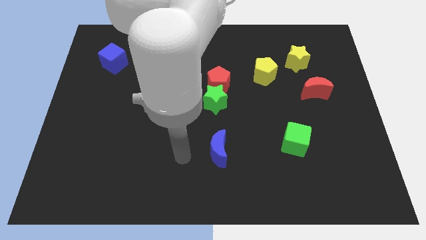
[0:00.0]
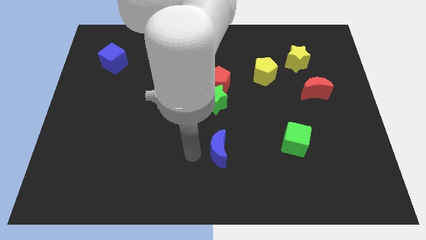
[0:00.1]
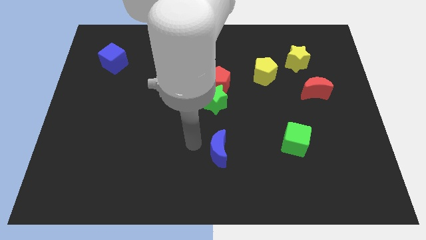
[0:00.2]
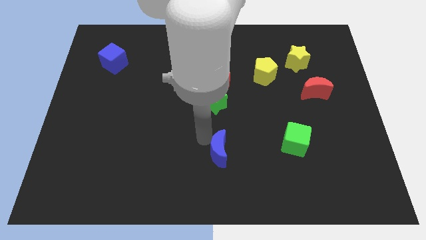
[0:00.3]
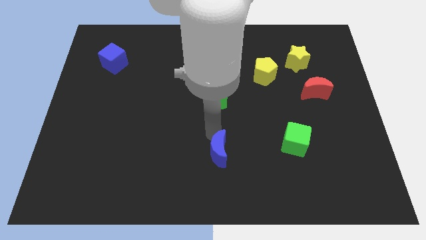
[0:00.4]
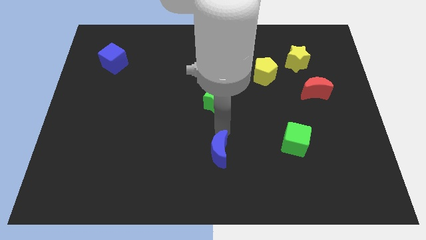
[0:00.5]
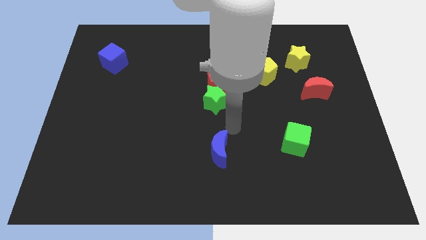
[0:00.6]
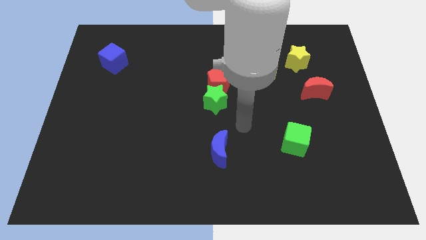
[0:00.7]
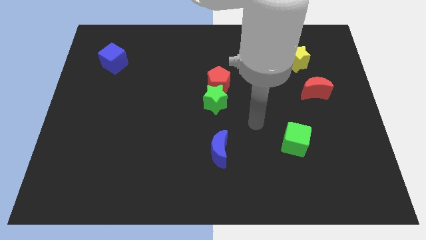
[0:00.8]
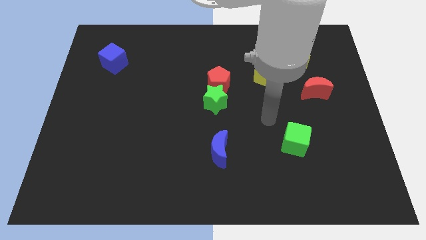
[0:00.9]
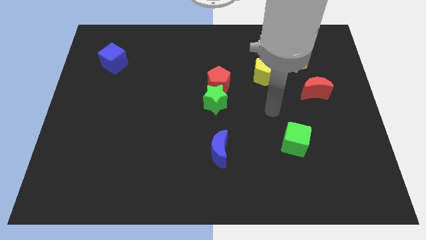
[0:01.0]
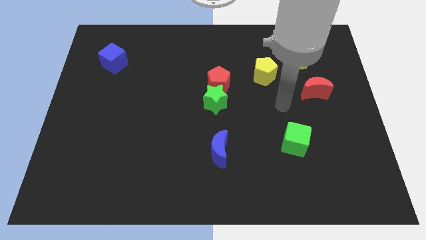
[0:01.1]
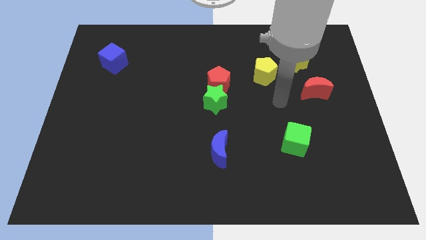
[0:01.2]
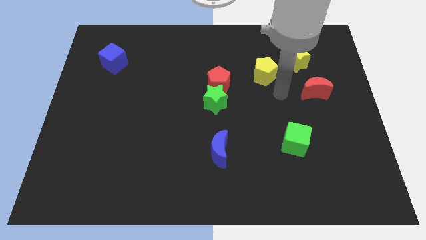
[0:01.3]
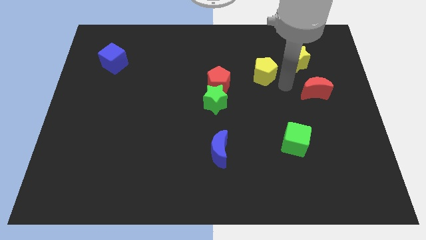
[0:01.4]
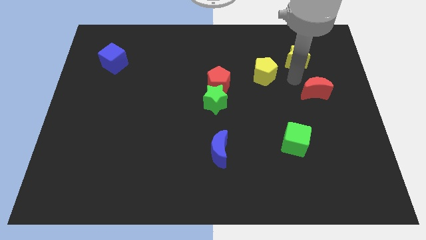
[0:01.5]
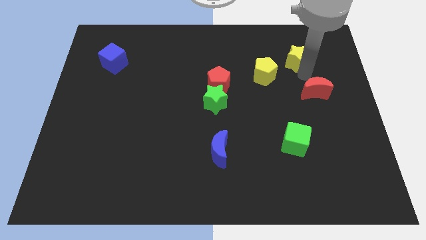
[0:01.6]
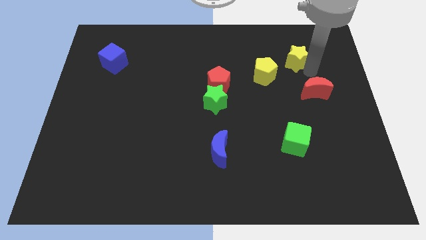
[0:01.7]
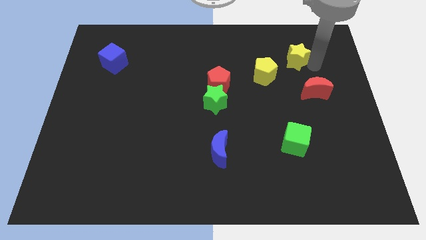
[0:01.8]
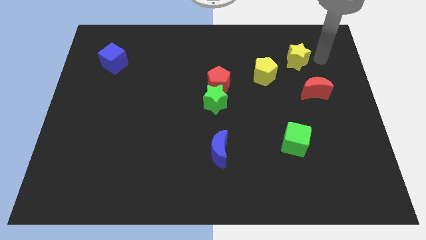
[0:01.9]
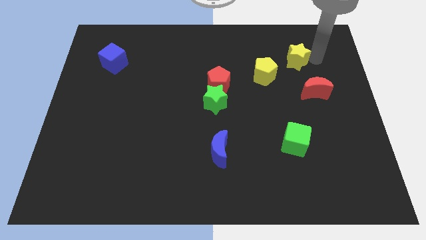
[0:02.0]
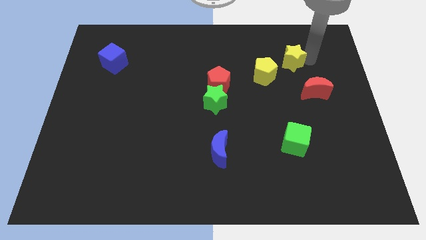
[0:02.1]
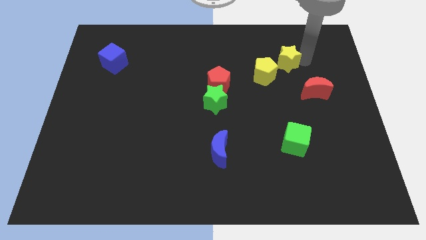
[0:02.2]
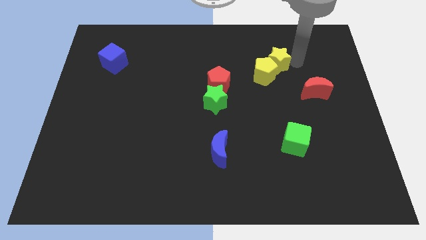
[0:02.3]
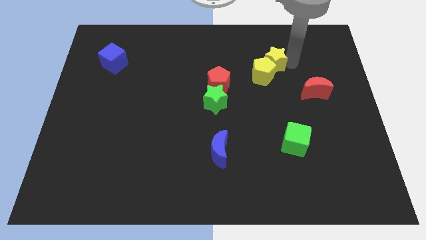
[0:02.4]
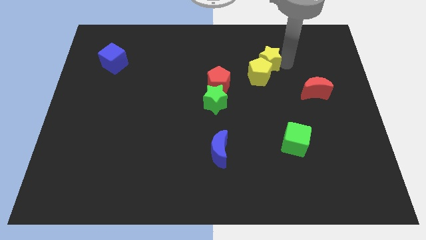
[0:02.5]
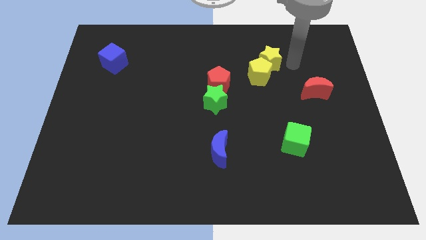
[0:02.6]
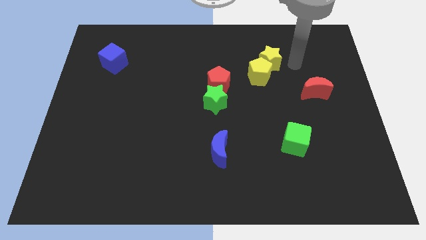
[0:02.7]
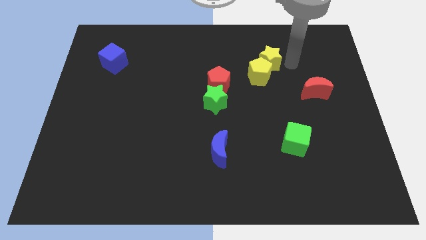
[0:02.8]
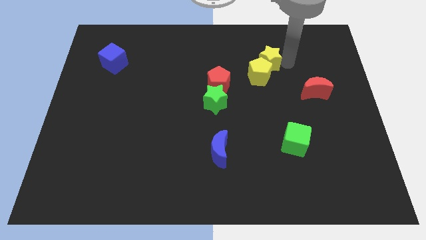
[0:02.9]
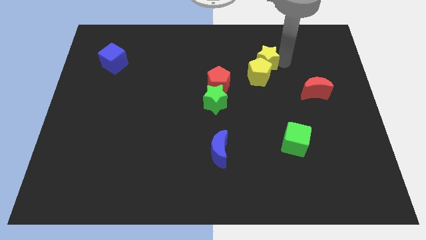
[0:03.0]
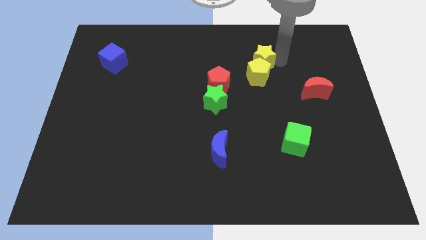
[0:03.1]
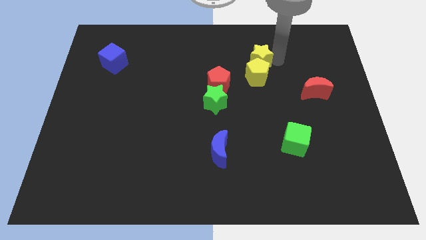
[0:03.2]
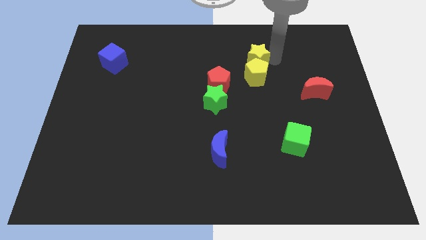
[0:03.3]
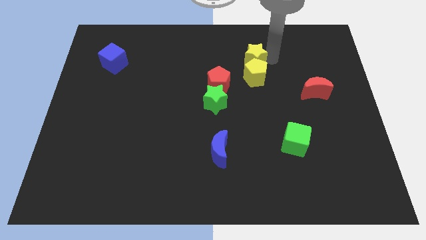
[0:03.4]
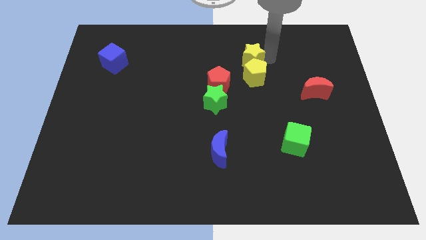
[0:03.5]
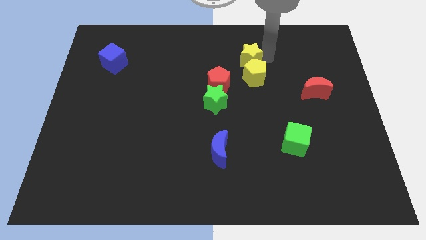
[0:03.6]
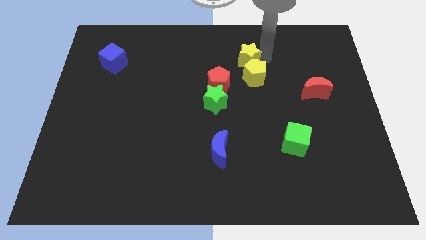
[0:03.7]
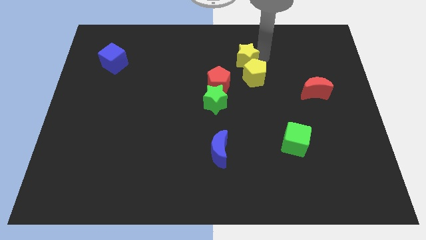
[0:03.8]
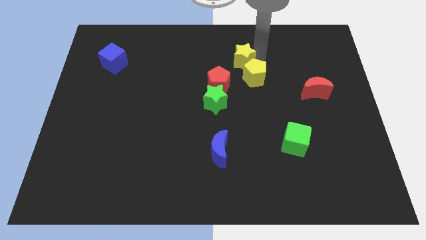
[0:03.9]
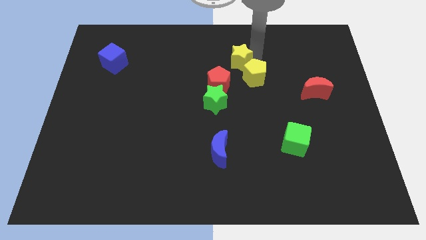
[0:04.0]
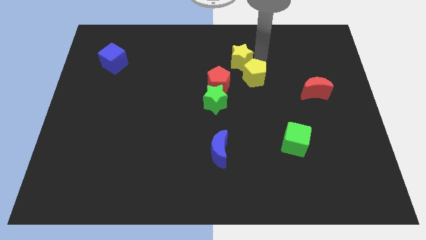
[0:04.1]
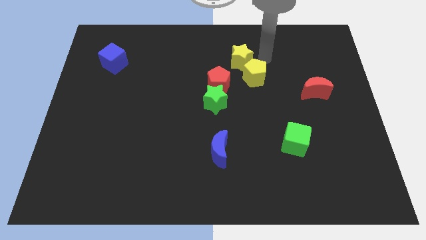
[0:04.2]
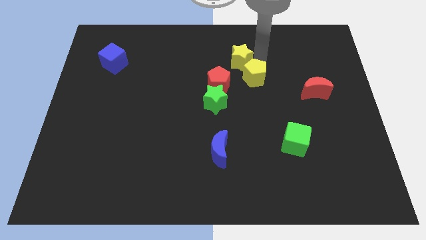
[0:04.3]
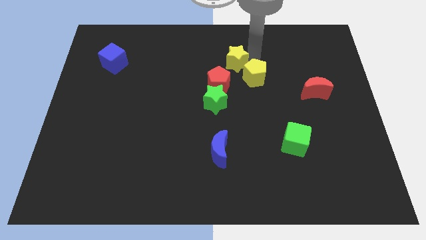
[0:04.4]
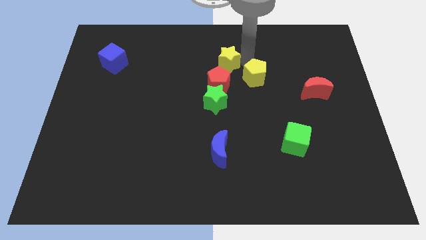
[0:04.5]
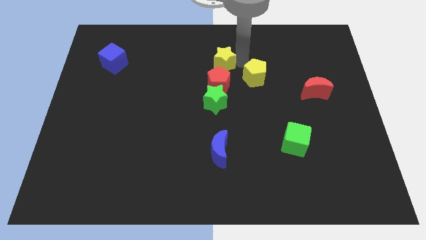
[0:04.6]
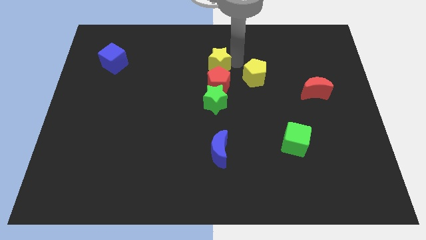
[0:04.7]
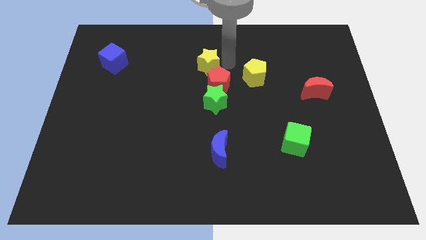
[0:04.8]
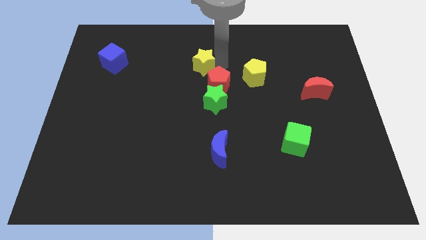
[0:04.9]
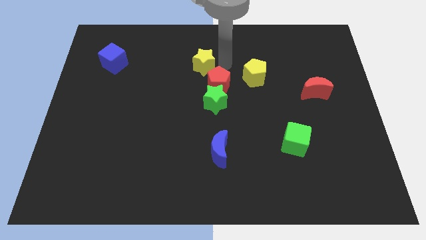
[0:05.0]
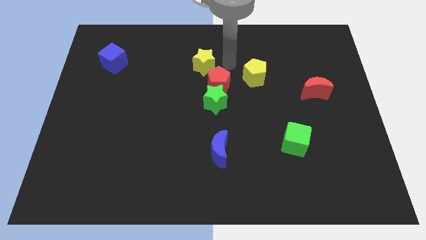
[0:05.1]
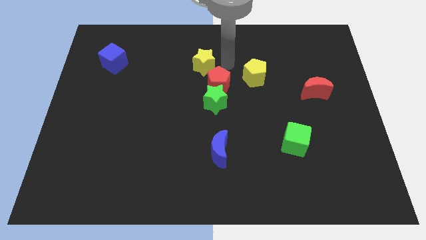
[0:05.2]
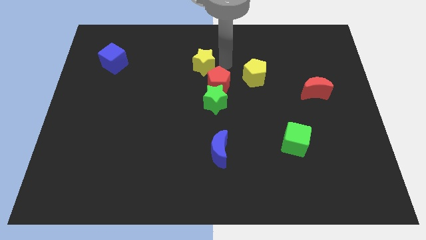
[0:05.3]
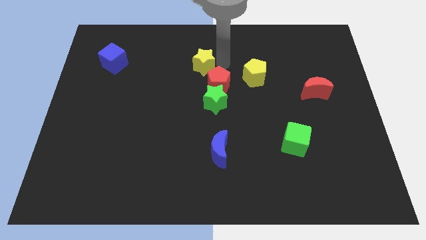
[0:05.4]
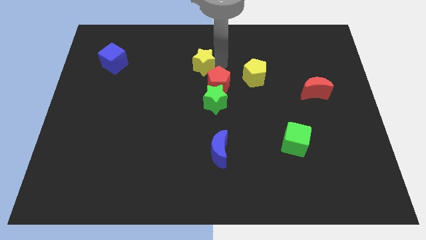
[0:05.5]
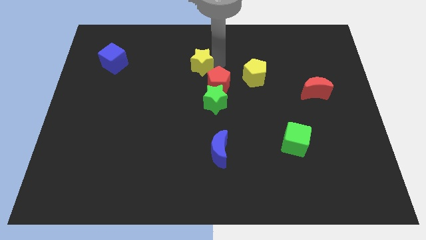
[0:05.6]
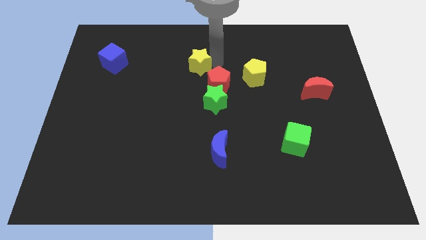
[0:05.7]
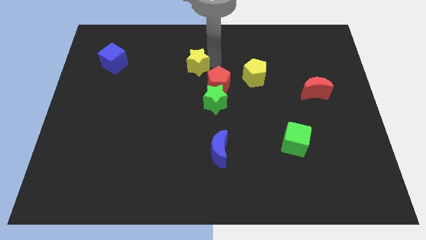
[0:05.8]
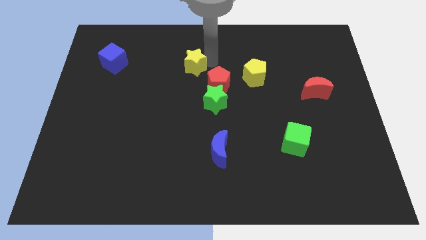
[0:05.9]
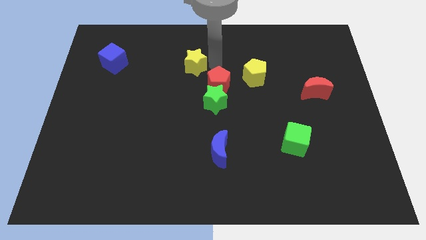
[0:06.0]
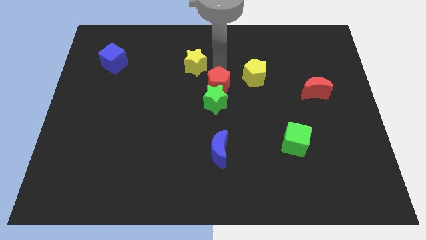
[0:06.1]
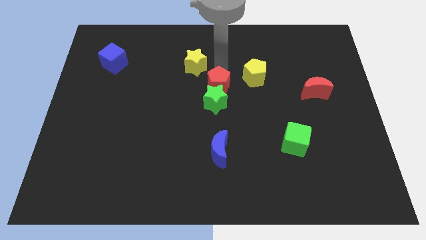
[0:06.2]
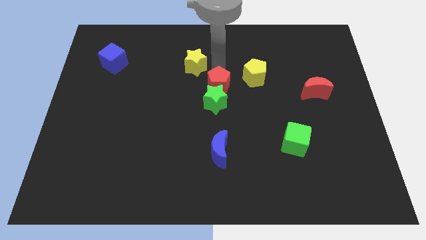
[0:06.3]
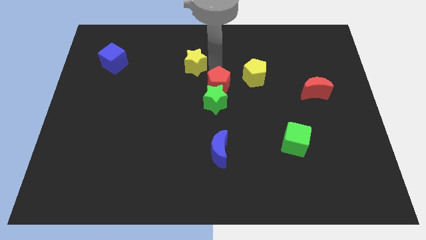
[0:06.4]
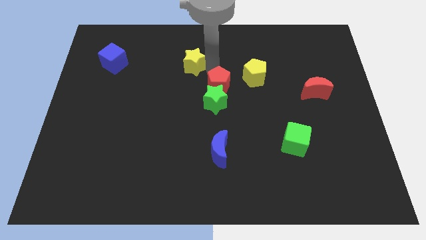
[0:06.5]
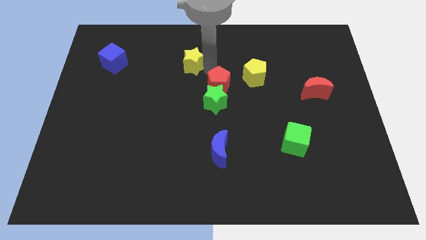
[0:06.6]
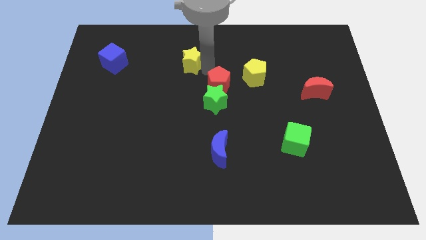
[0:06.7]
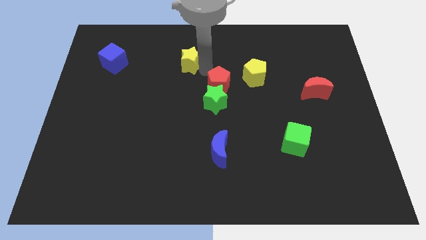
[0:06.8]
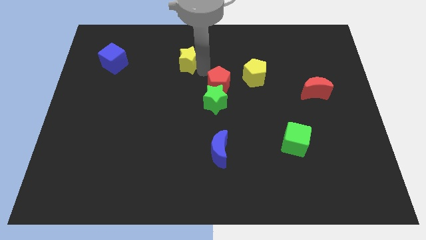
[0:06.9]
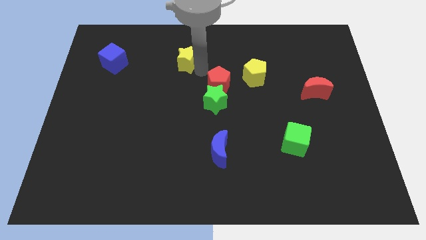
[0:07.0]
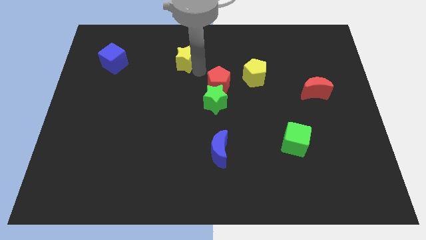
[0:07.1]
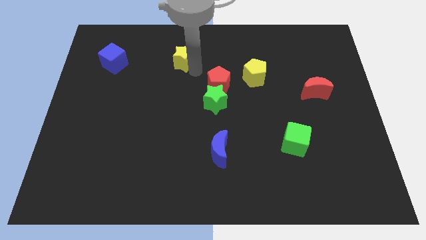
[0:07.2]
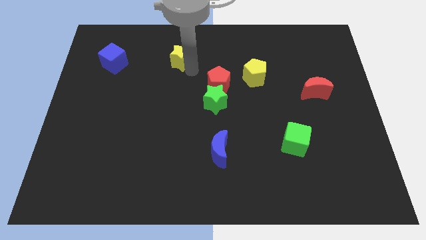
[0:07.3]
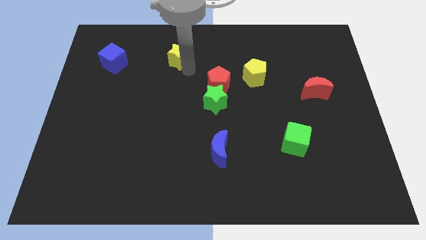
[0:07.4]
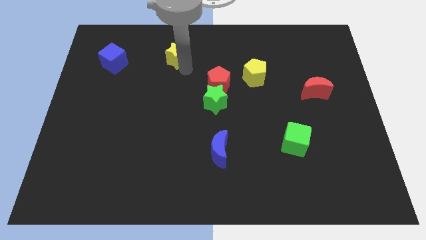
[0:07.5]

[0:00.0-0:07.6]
put the yellow star to the right side of the blue cube

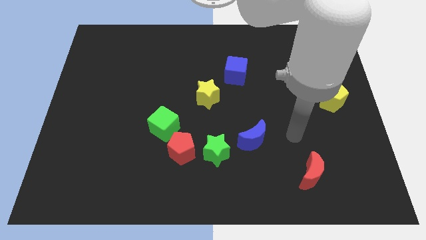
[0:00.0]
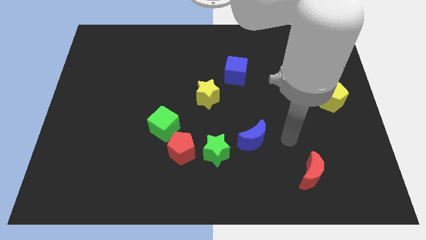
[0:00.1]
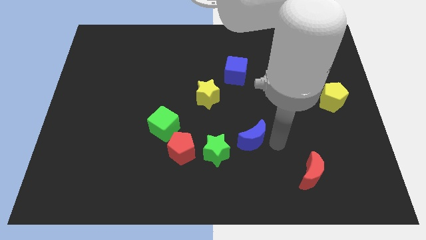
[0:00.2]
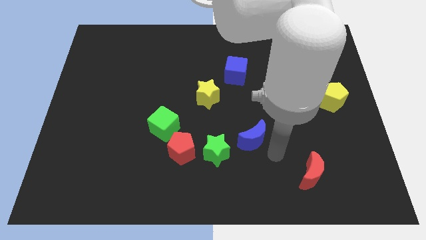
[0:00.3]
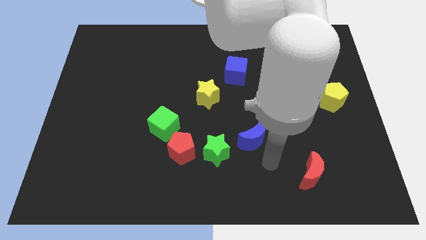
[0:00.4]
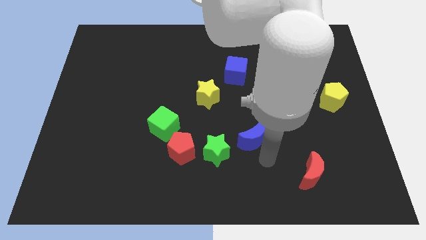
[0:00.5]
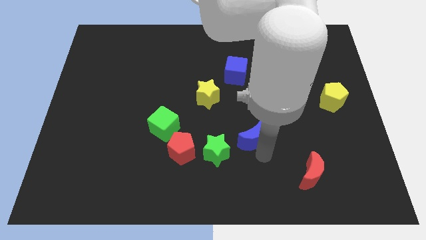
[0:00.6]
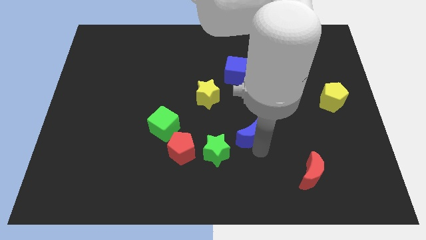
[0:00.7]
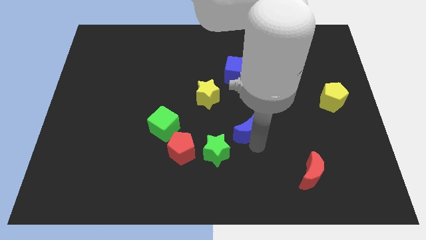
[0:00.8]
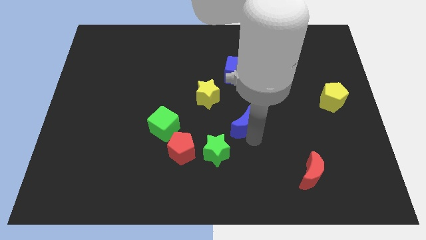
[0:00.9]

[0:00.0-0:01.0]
put the blue moon diagonally down and to the right of the yellow star
